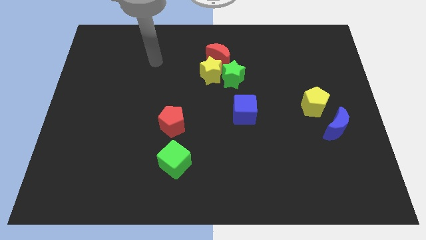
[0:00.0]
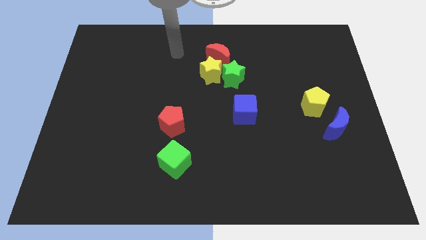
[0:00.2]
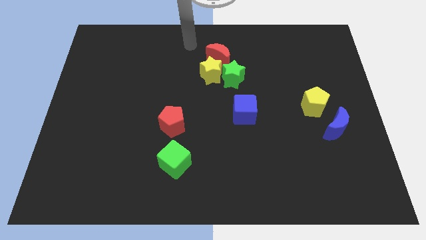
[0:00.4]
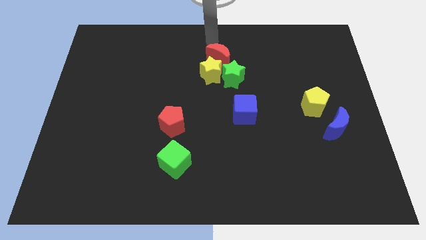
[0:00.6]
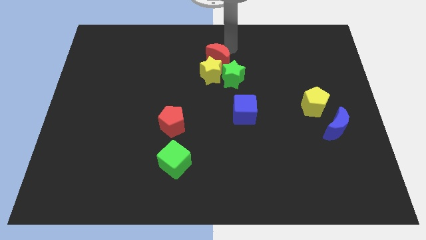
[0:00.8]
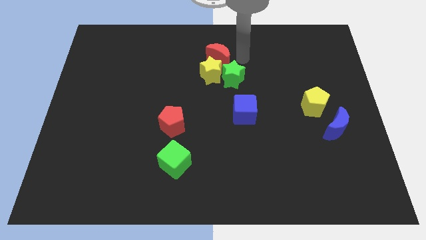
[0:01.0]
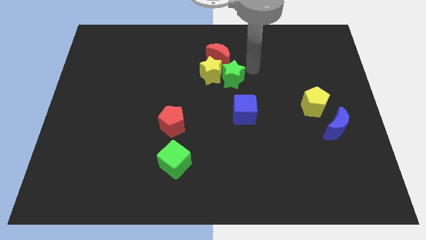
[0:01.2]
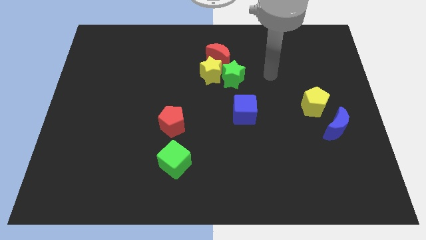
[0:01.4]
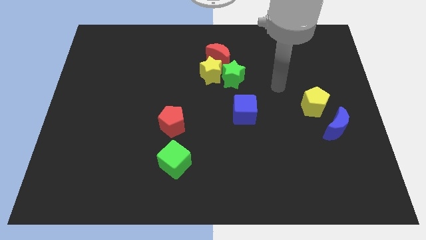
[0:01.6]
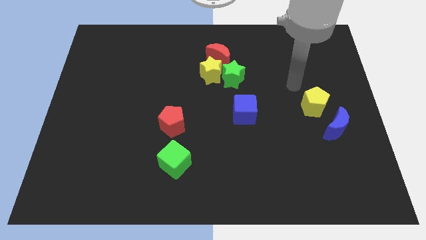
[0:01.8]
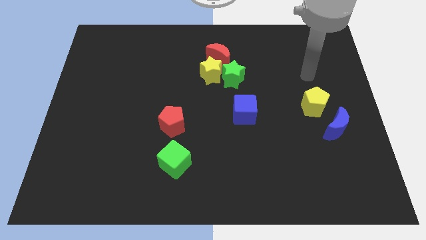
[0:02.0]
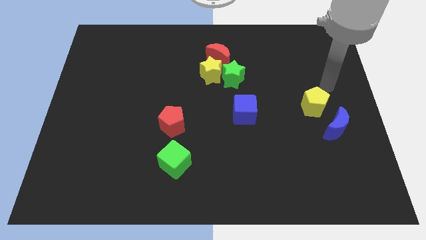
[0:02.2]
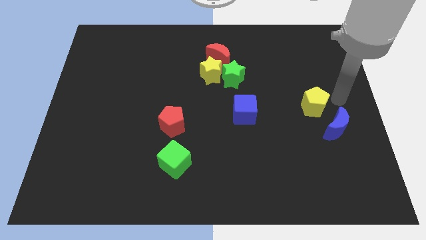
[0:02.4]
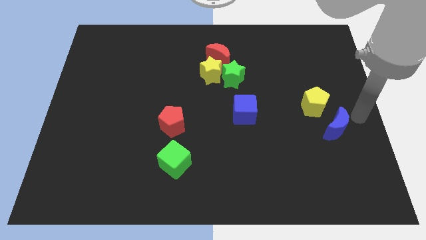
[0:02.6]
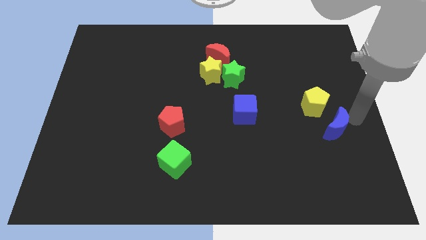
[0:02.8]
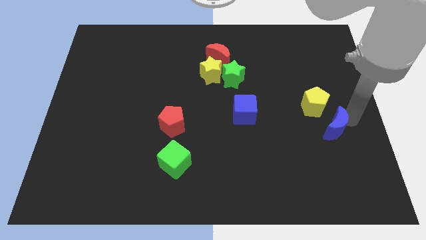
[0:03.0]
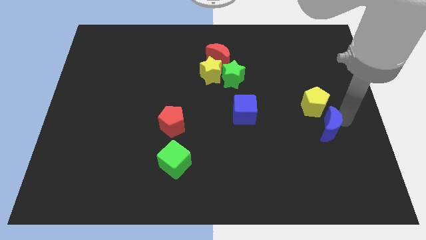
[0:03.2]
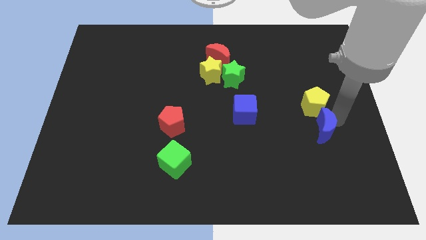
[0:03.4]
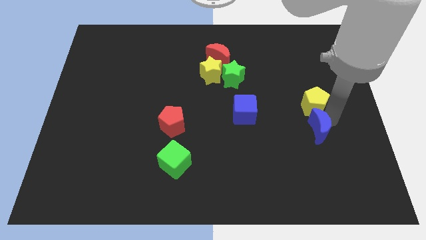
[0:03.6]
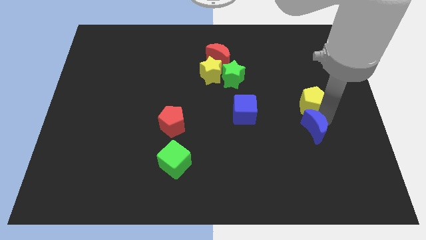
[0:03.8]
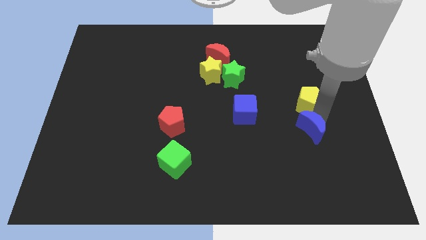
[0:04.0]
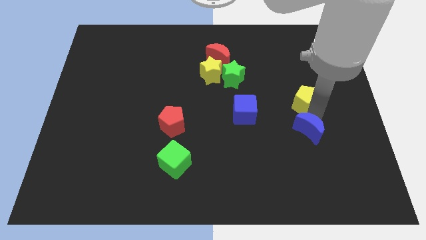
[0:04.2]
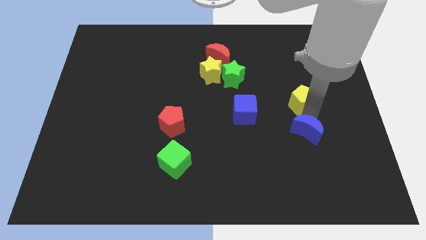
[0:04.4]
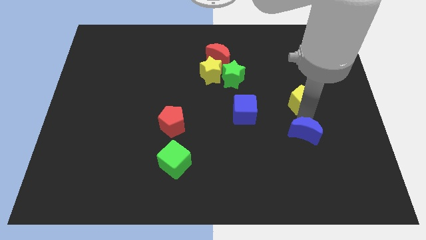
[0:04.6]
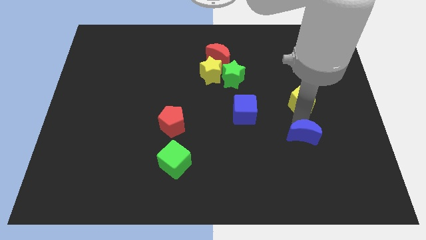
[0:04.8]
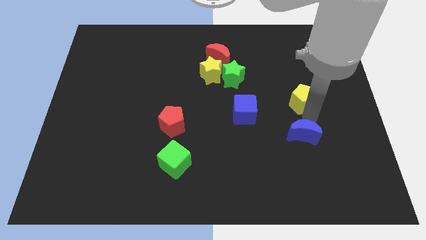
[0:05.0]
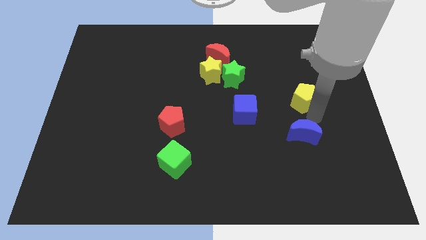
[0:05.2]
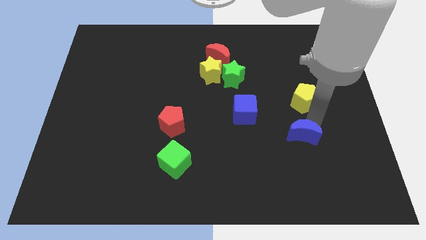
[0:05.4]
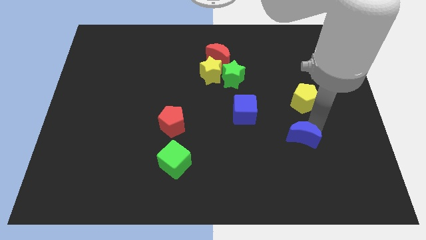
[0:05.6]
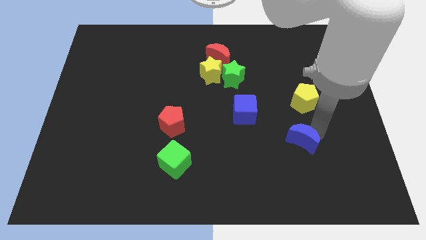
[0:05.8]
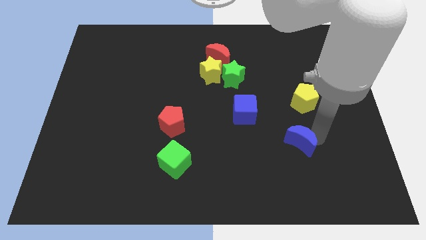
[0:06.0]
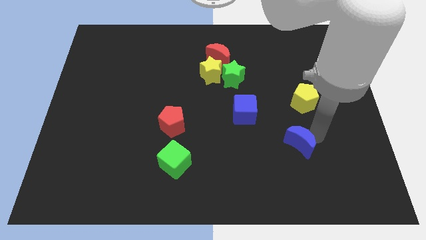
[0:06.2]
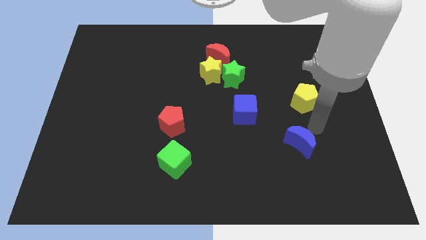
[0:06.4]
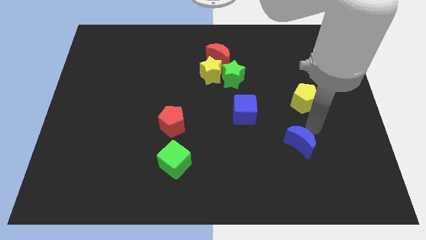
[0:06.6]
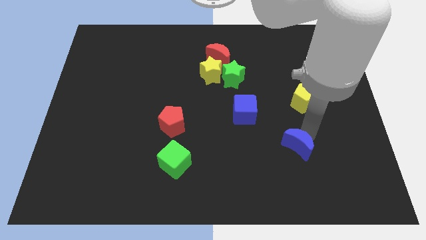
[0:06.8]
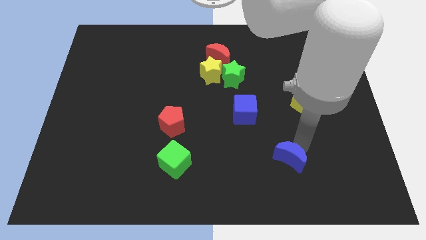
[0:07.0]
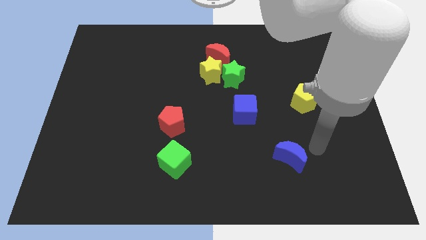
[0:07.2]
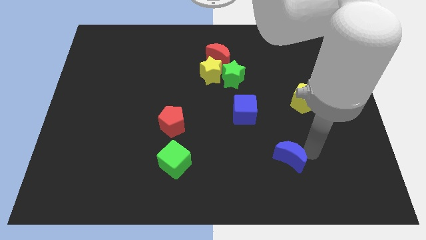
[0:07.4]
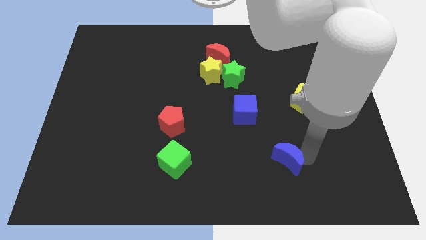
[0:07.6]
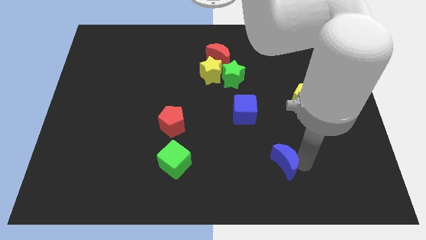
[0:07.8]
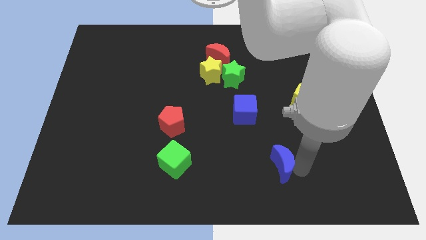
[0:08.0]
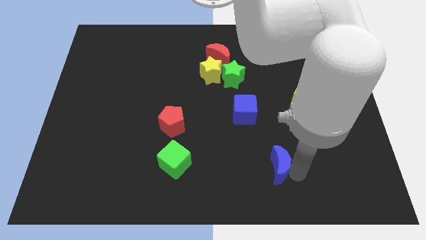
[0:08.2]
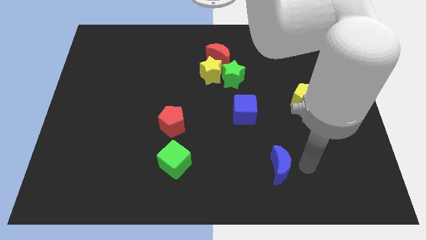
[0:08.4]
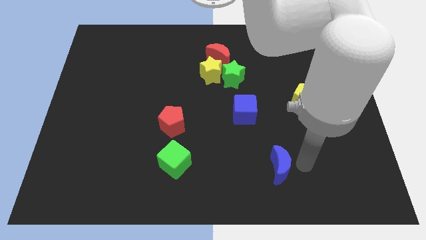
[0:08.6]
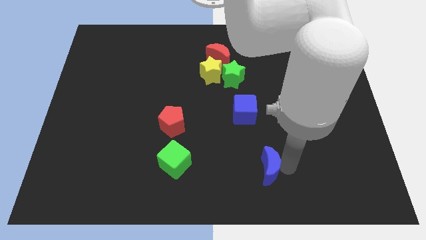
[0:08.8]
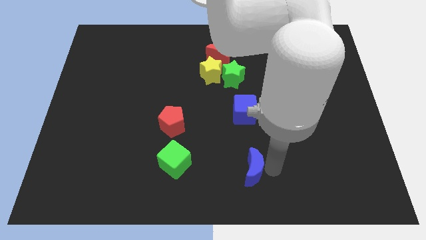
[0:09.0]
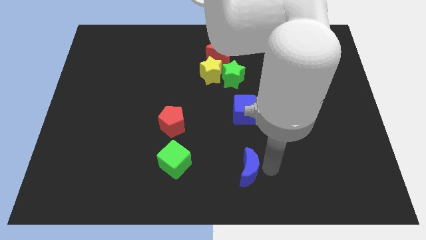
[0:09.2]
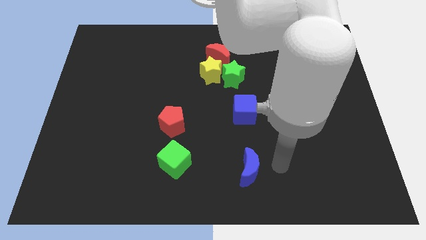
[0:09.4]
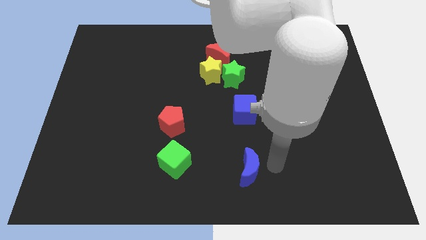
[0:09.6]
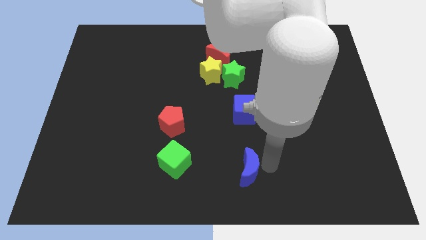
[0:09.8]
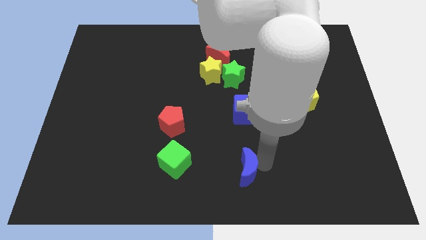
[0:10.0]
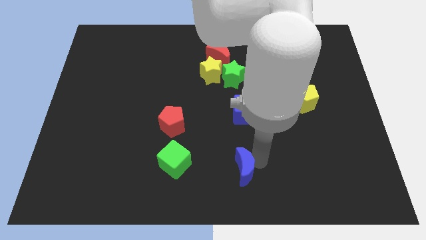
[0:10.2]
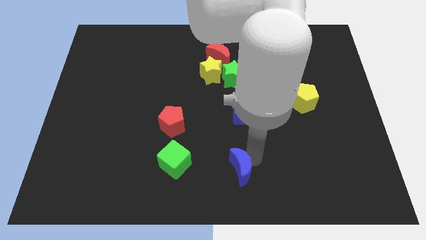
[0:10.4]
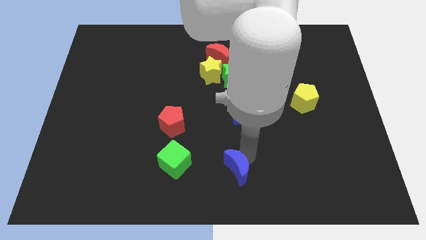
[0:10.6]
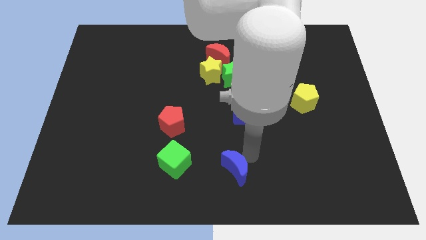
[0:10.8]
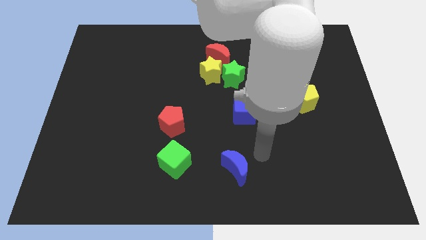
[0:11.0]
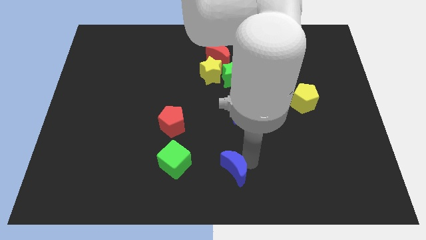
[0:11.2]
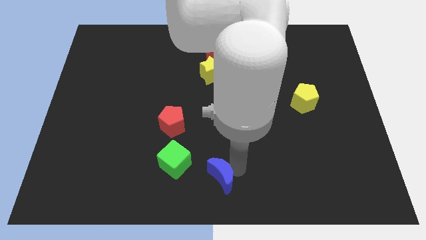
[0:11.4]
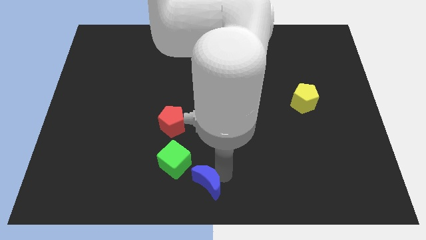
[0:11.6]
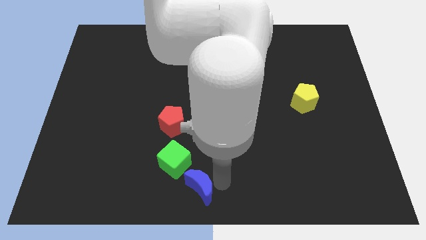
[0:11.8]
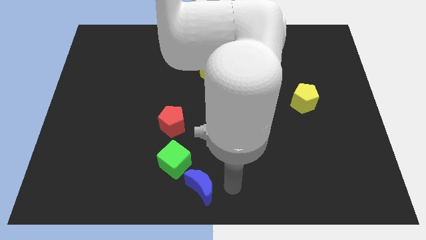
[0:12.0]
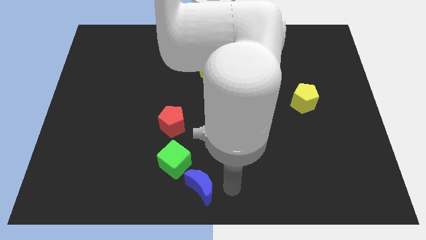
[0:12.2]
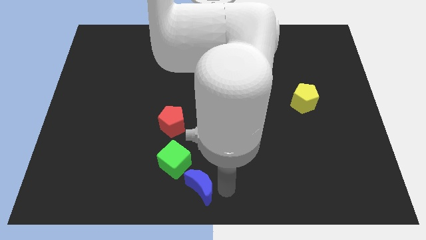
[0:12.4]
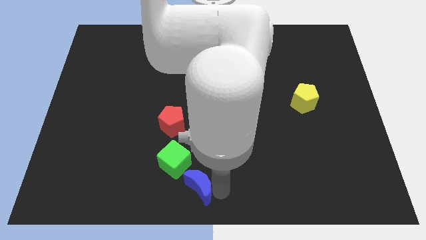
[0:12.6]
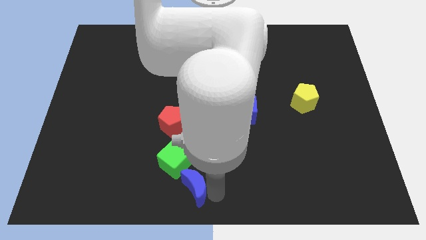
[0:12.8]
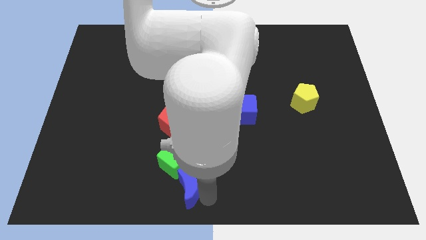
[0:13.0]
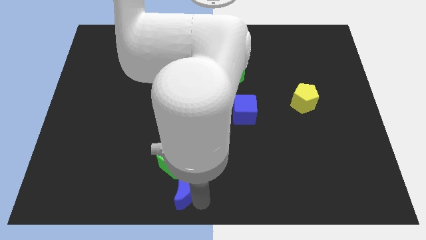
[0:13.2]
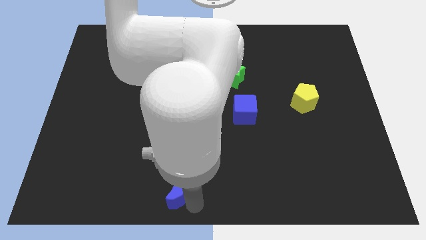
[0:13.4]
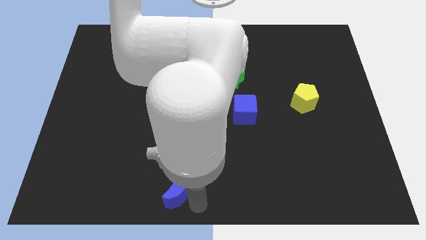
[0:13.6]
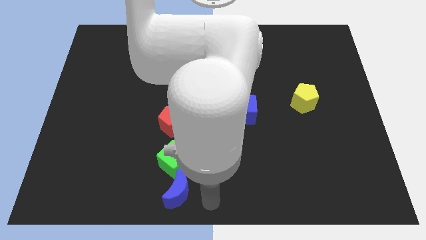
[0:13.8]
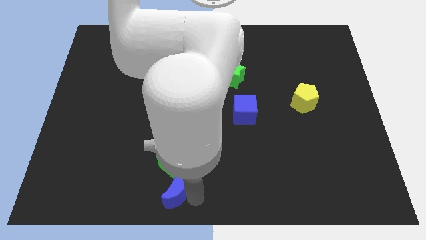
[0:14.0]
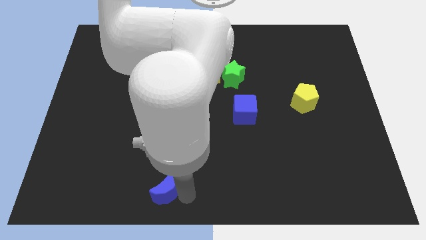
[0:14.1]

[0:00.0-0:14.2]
slide the blue moon to the bottom left side of the green cube
